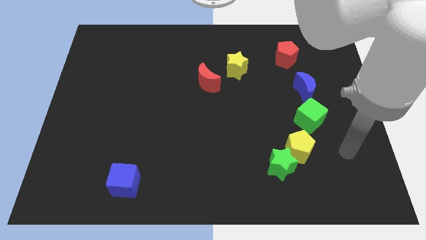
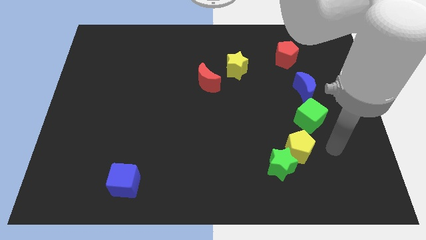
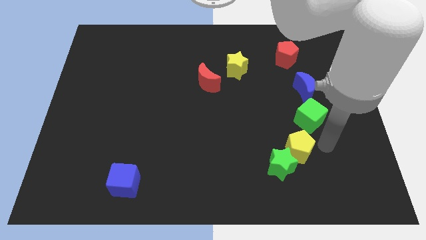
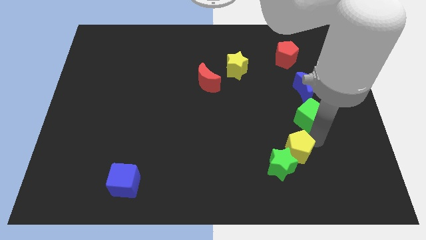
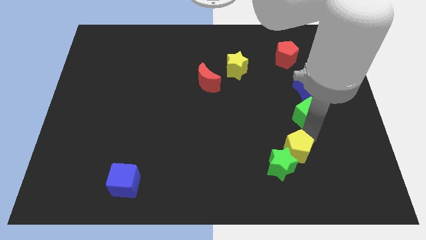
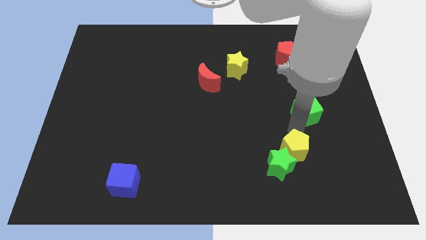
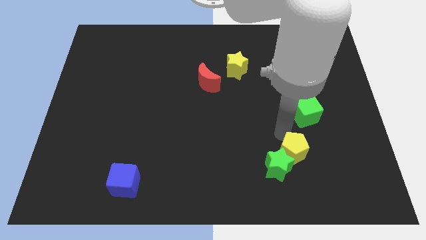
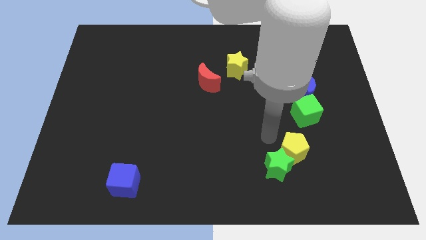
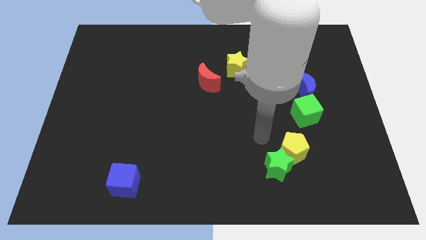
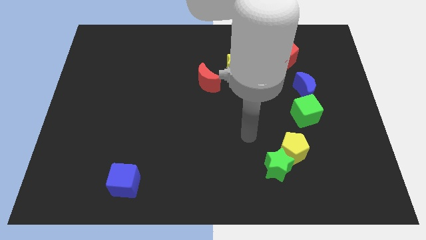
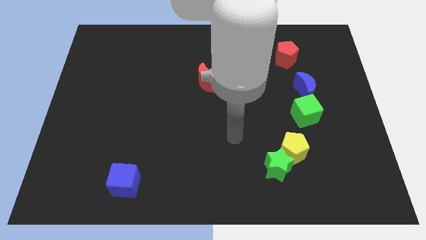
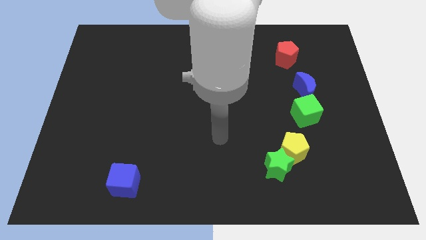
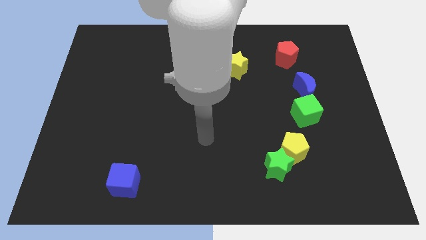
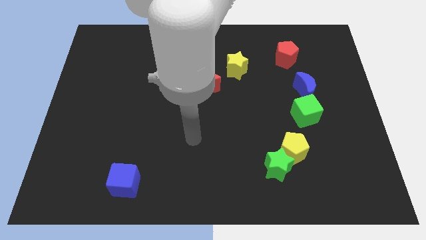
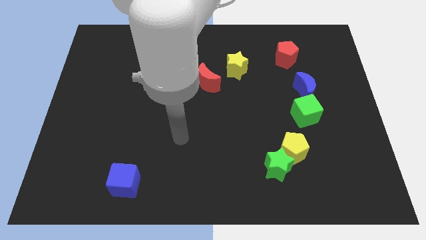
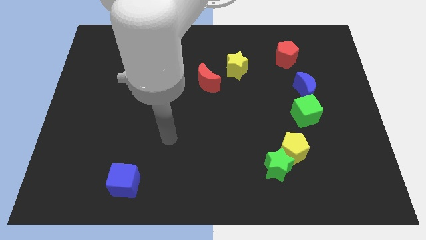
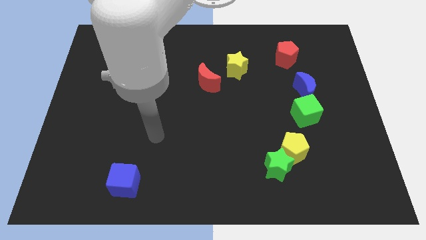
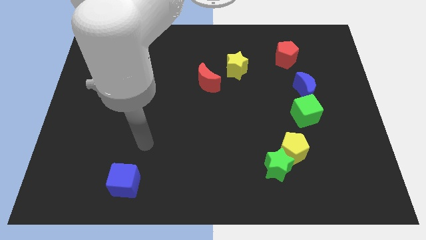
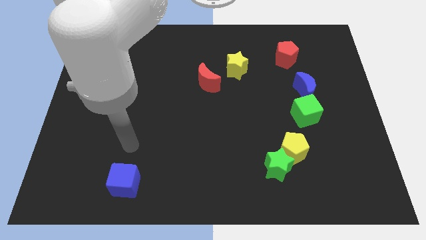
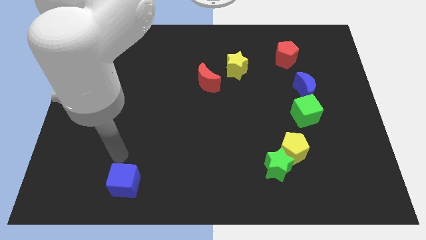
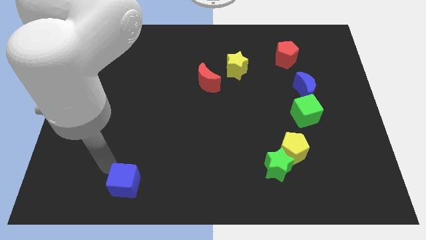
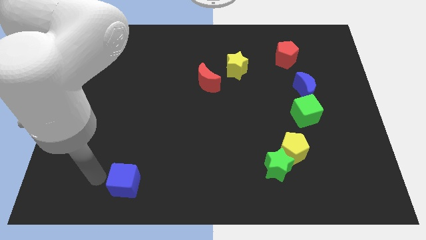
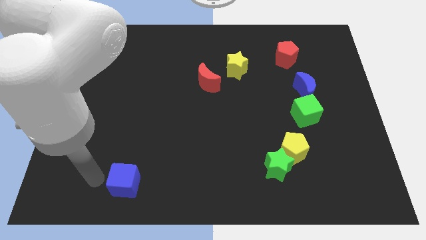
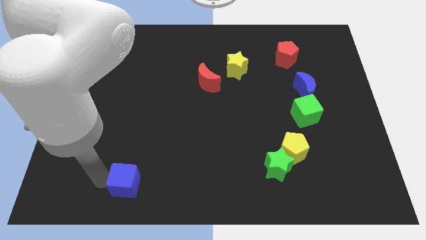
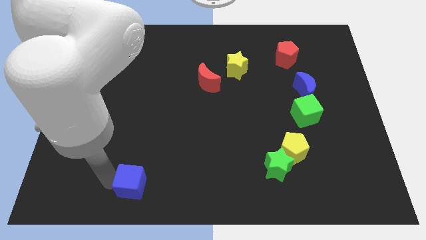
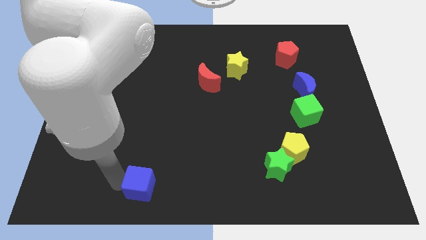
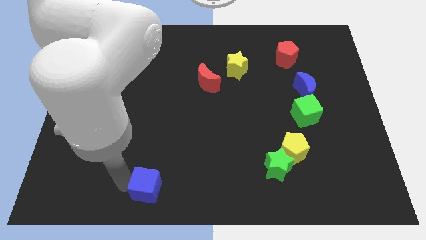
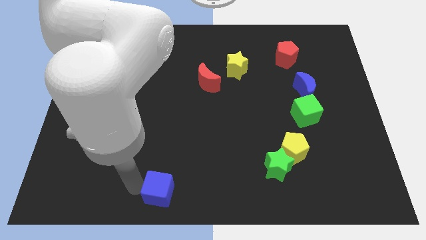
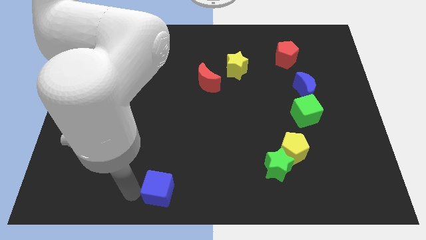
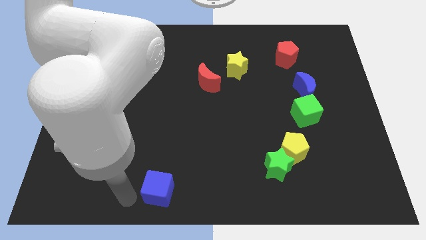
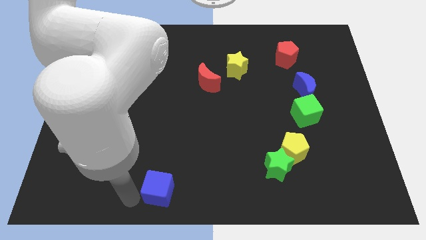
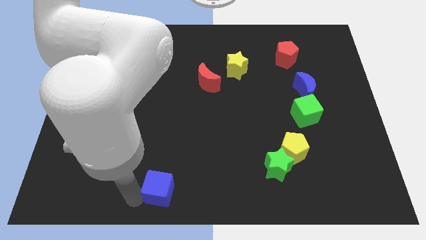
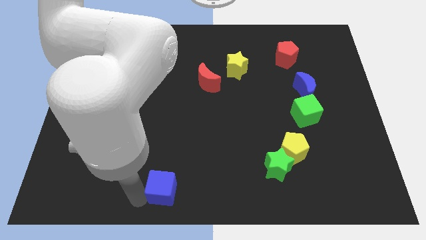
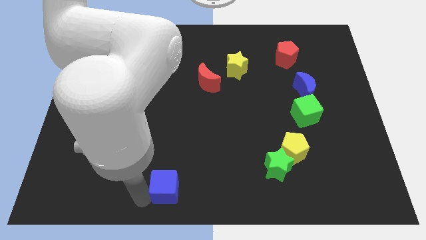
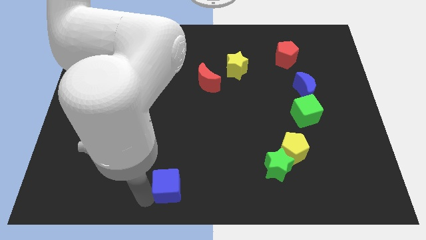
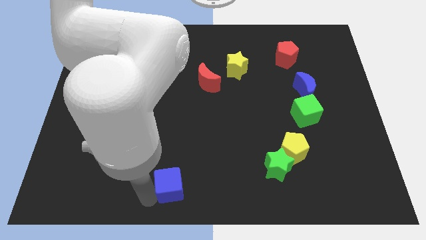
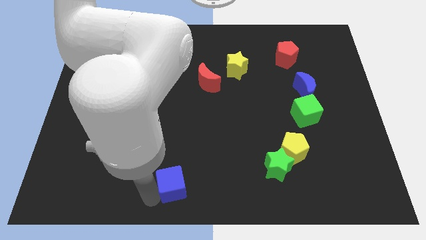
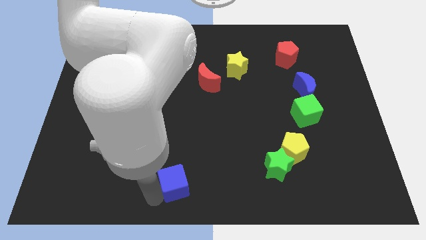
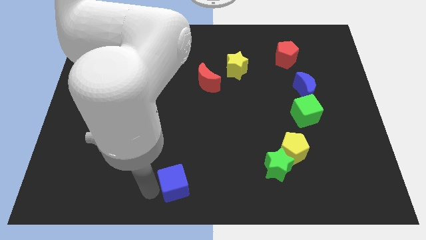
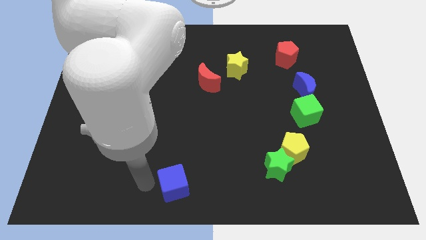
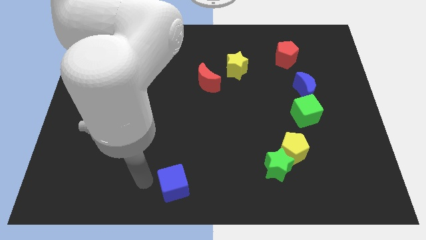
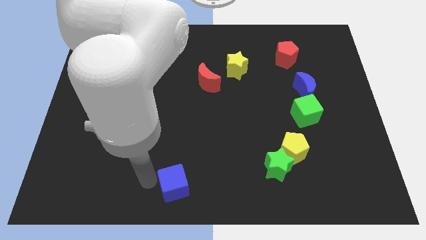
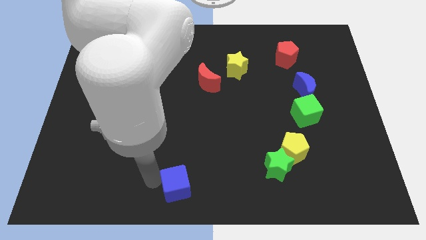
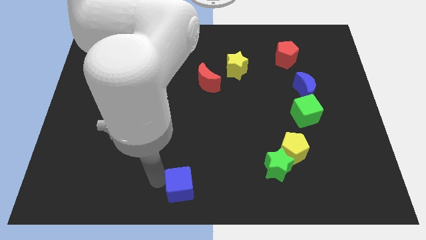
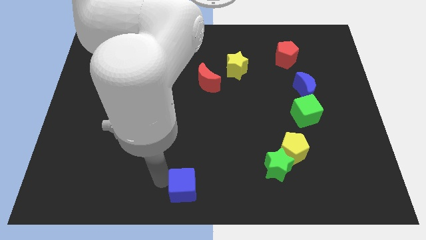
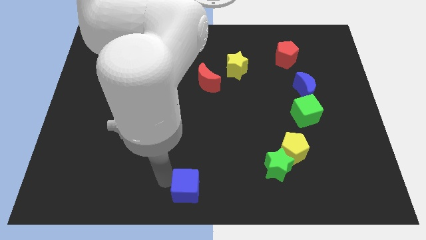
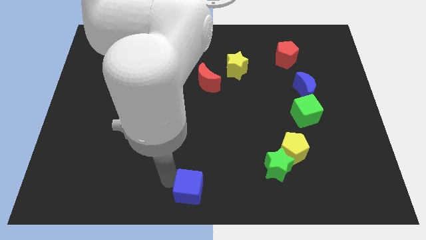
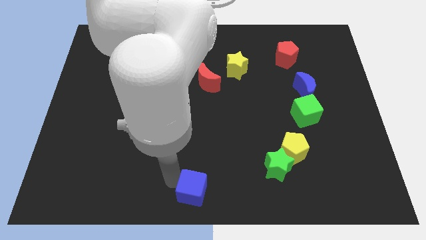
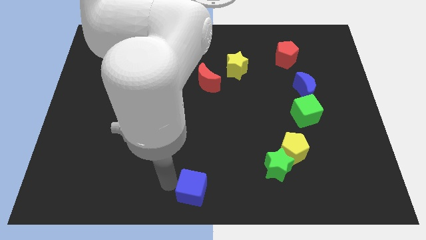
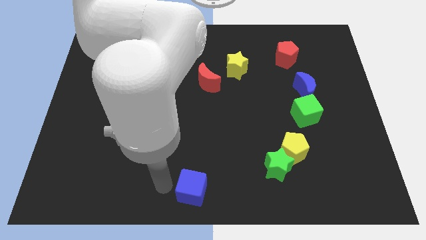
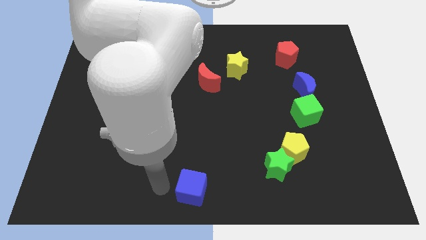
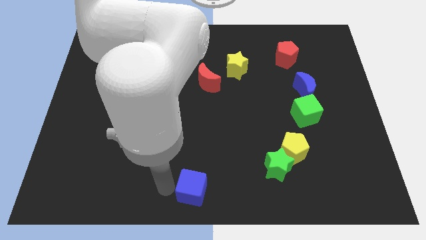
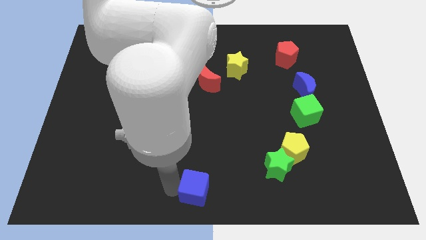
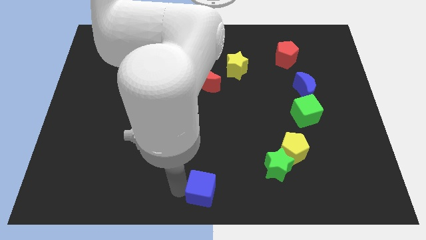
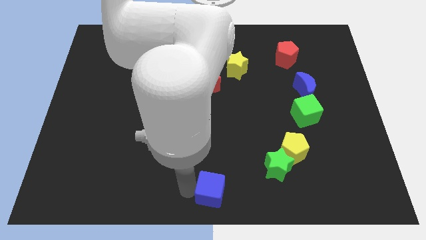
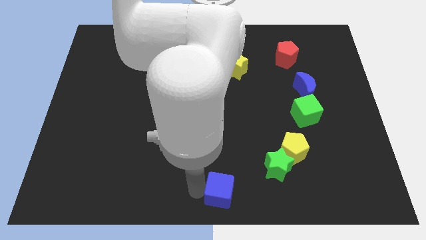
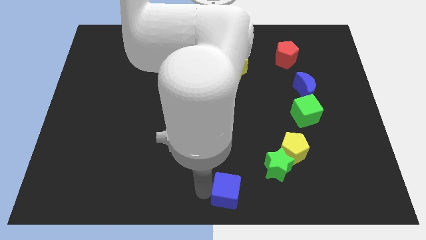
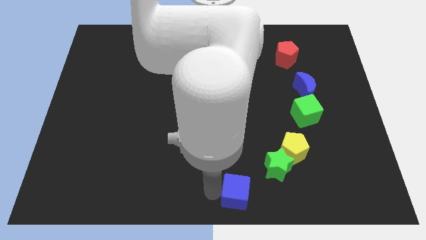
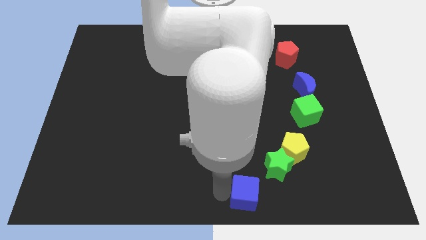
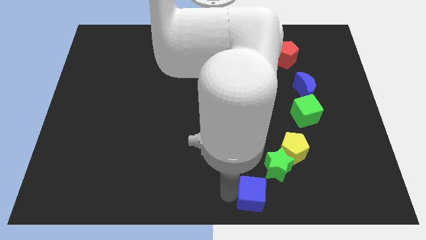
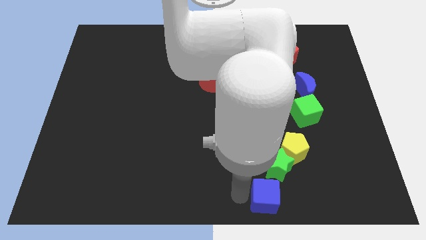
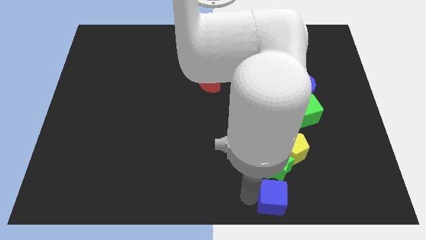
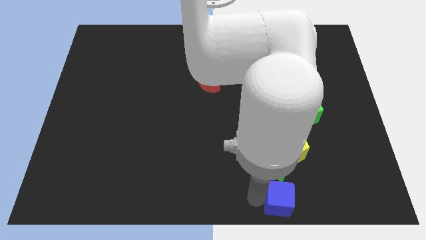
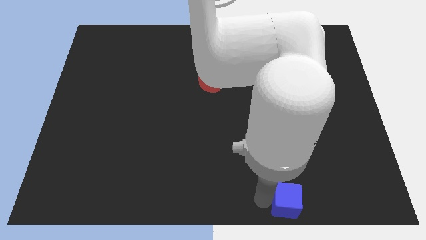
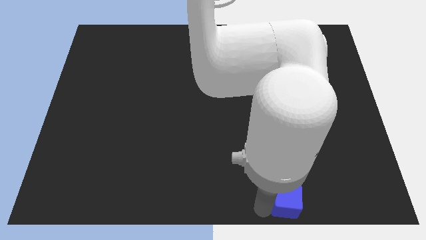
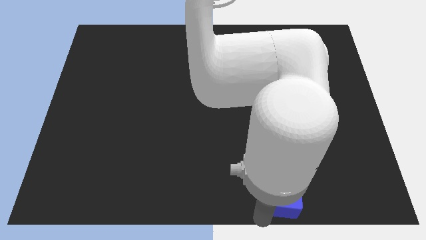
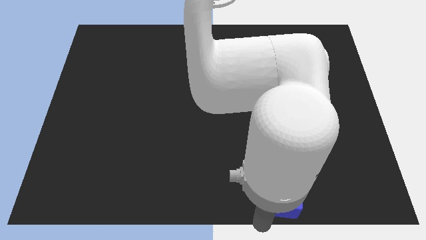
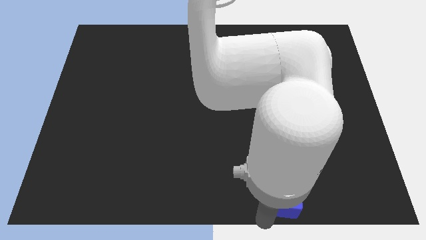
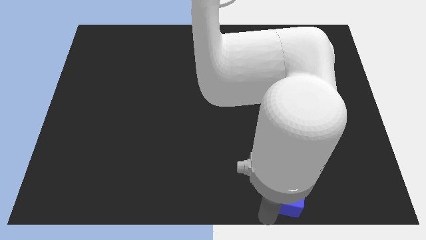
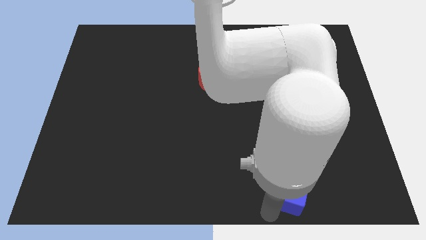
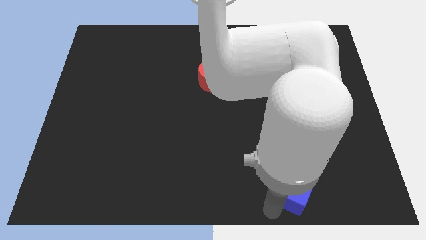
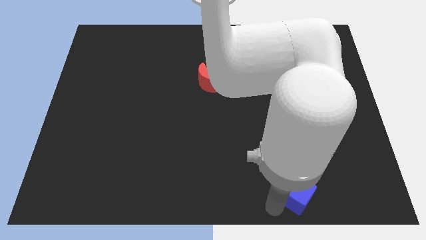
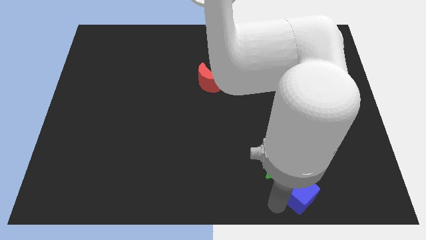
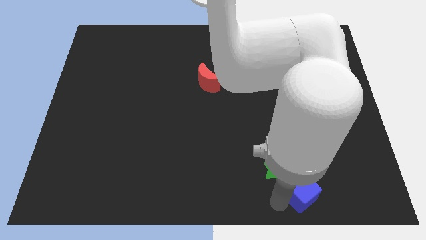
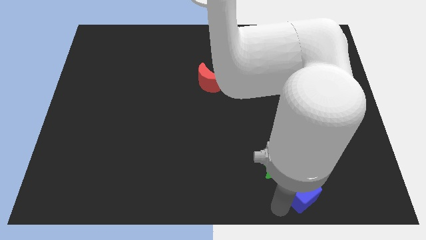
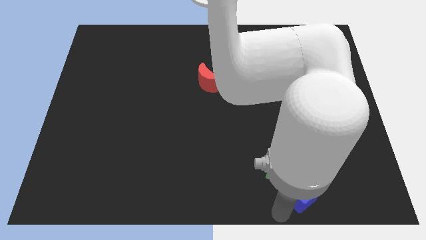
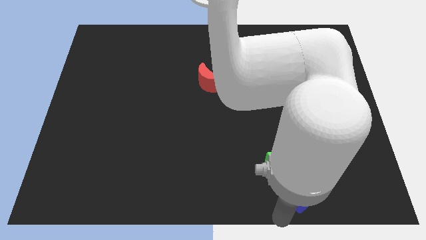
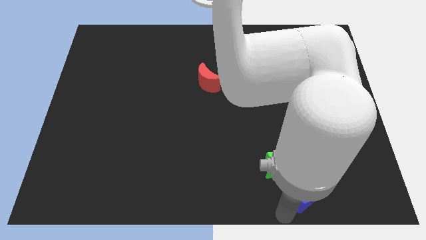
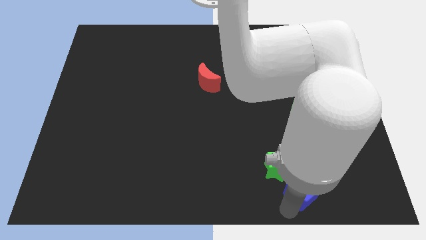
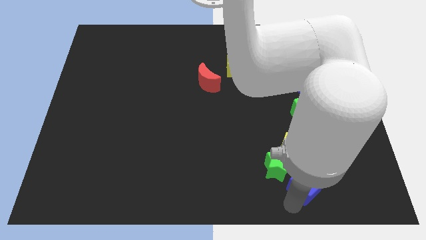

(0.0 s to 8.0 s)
put the blue cube to the bottom right of the yellow pentagon
